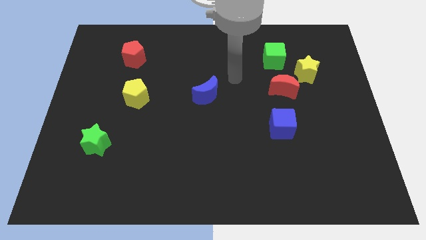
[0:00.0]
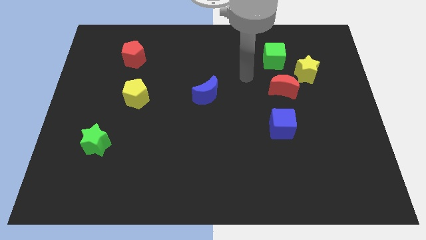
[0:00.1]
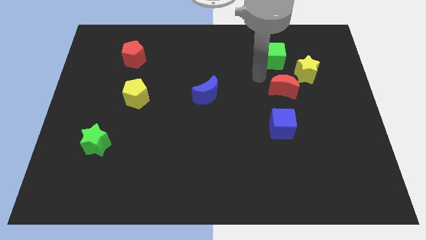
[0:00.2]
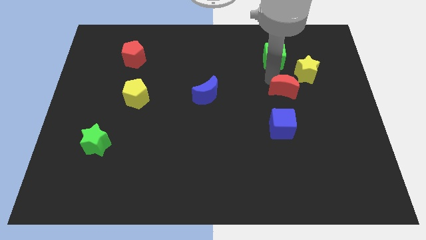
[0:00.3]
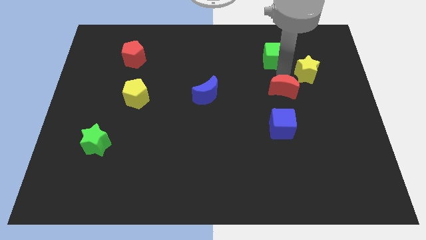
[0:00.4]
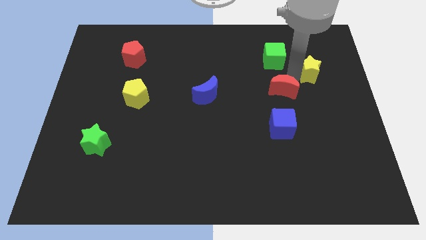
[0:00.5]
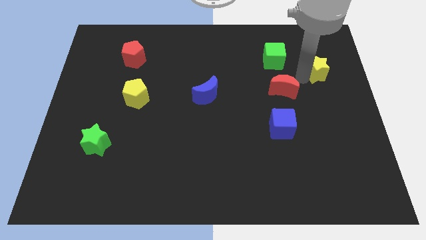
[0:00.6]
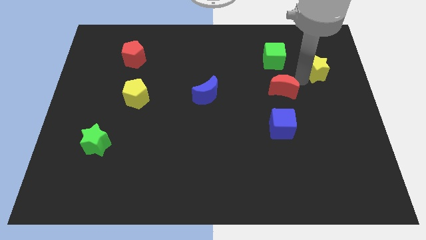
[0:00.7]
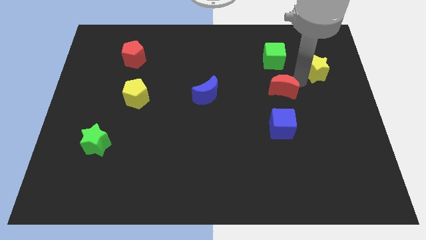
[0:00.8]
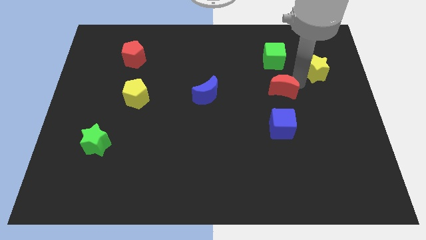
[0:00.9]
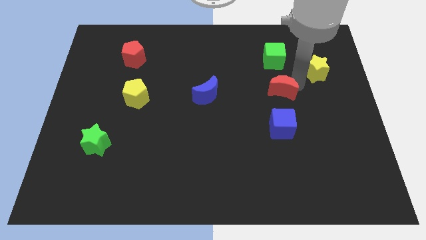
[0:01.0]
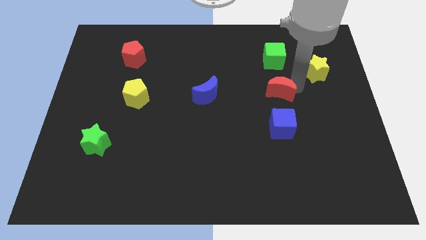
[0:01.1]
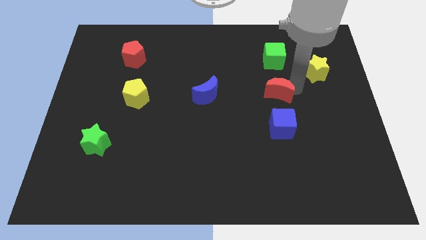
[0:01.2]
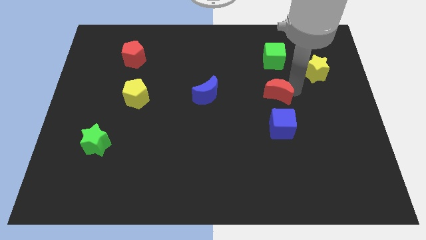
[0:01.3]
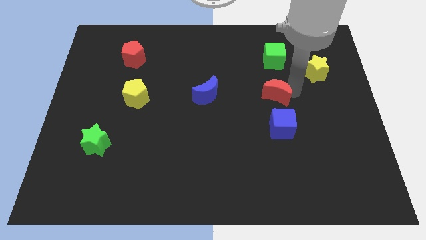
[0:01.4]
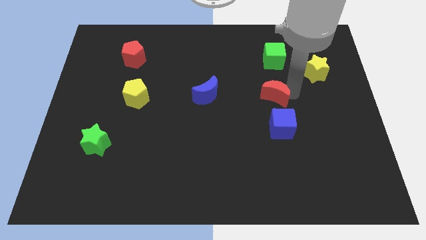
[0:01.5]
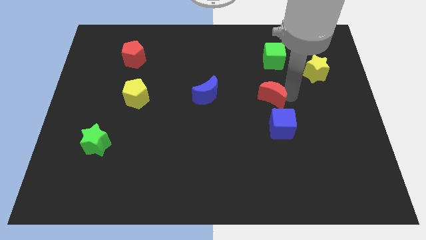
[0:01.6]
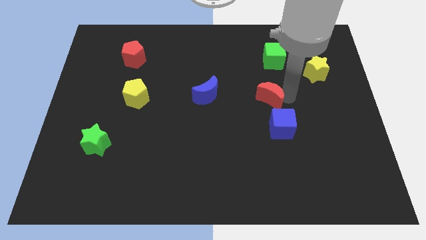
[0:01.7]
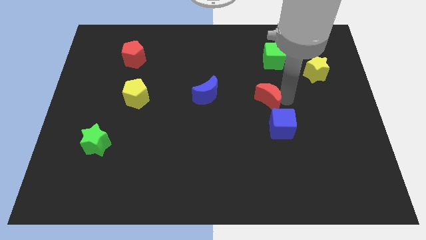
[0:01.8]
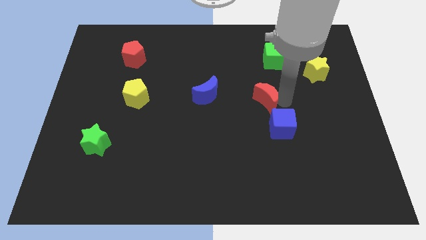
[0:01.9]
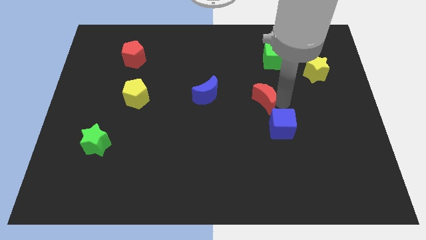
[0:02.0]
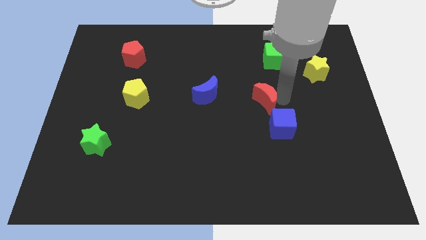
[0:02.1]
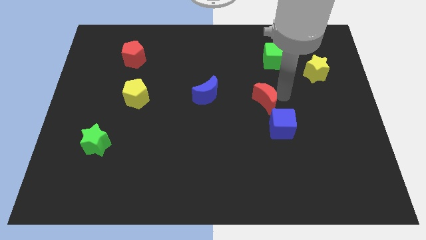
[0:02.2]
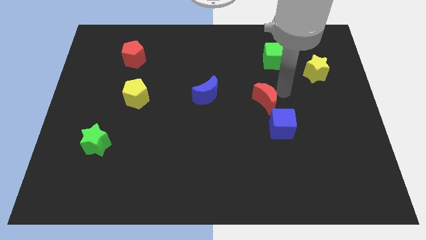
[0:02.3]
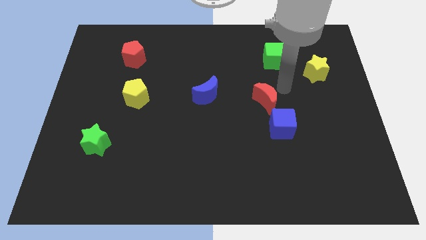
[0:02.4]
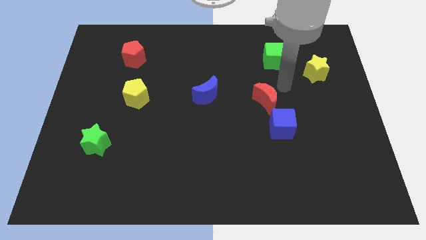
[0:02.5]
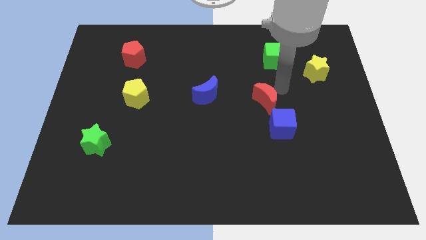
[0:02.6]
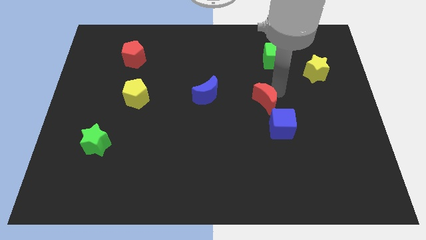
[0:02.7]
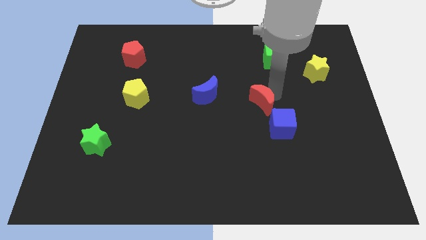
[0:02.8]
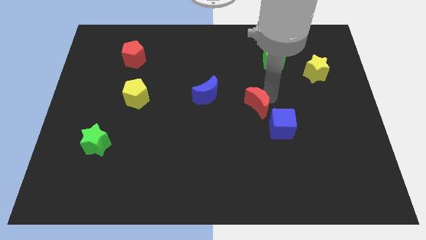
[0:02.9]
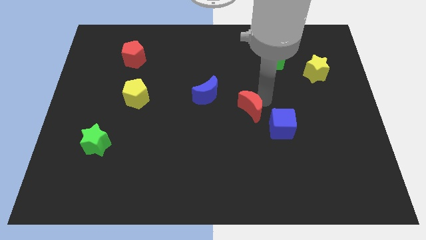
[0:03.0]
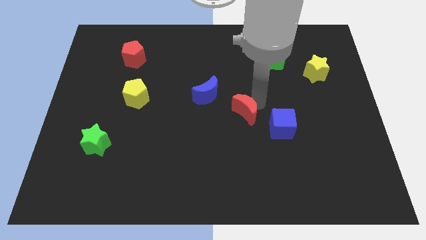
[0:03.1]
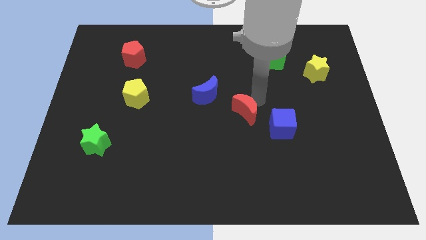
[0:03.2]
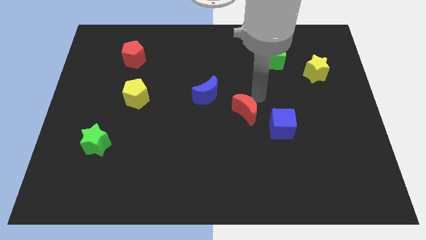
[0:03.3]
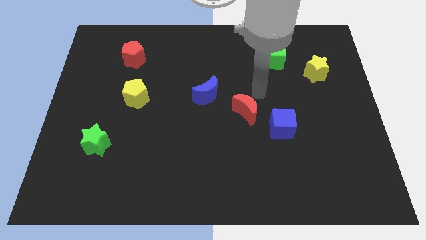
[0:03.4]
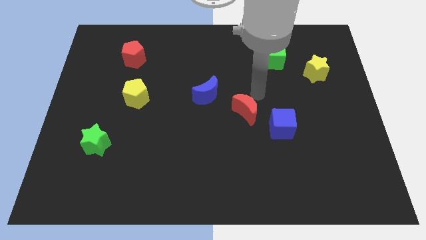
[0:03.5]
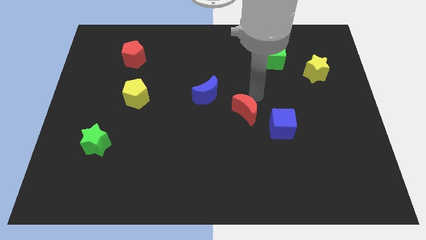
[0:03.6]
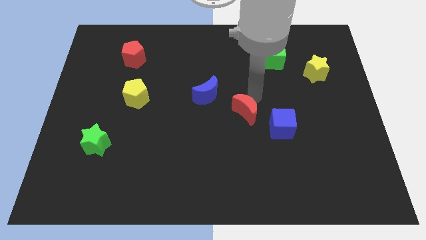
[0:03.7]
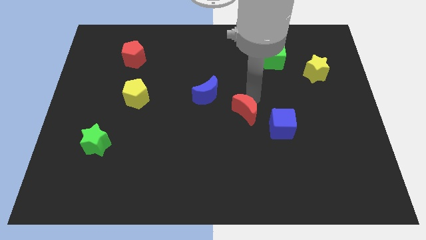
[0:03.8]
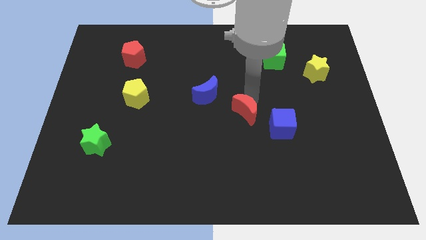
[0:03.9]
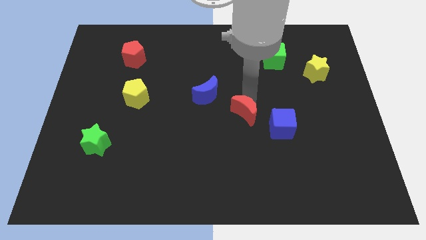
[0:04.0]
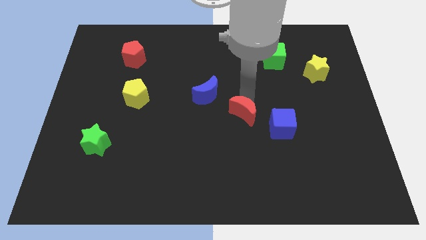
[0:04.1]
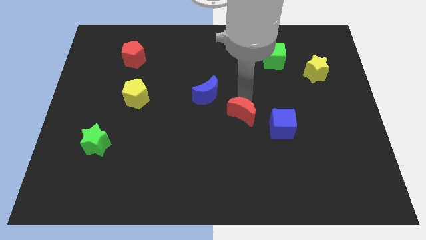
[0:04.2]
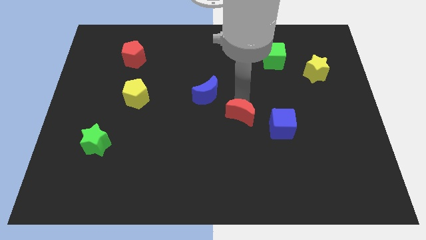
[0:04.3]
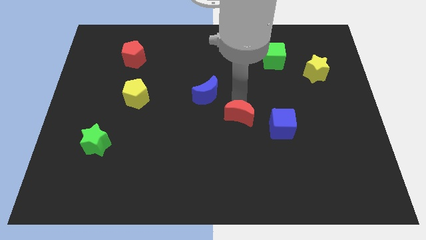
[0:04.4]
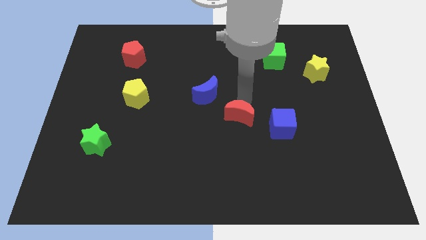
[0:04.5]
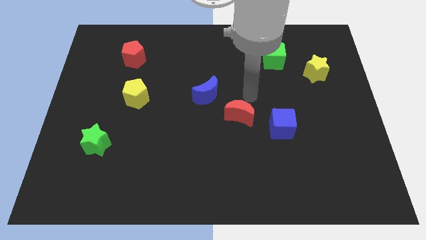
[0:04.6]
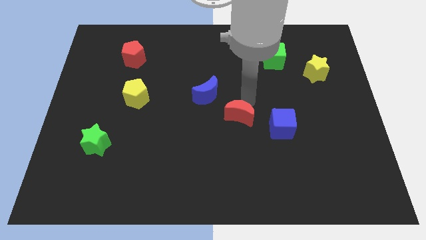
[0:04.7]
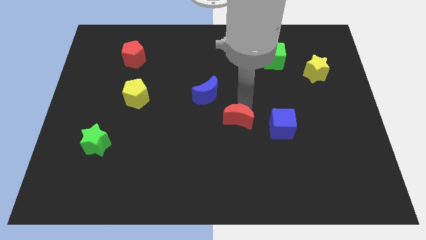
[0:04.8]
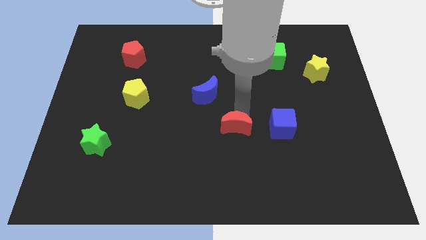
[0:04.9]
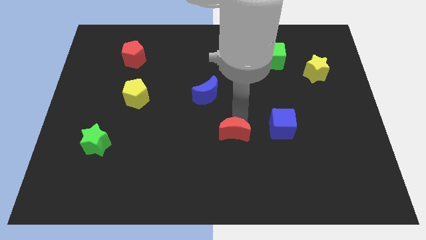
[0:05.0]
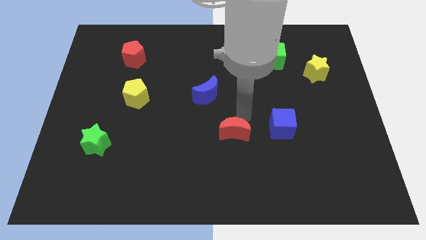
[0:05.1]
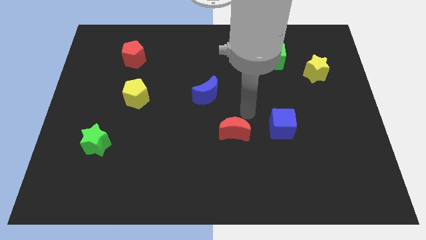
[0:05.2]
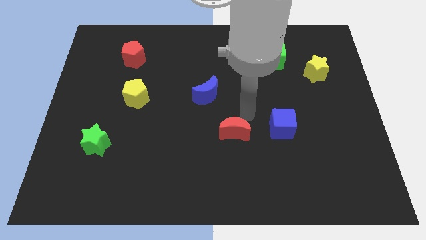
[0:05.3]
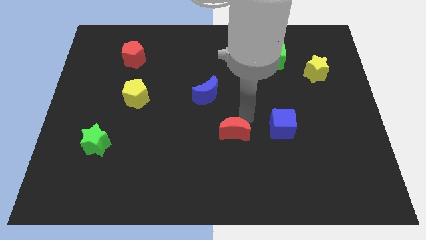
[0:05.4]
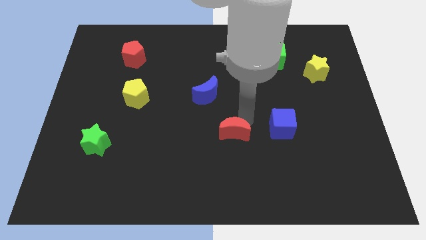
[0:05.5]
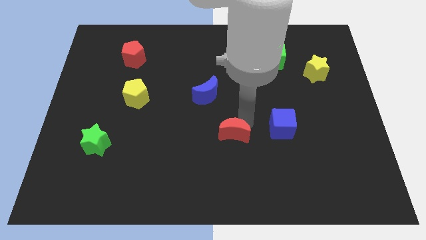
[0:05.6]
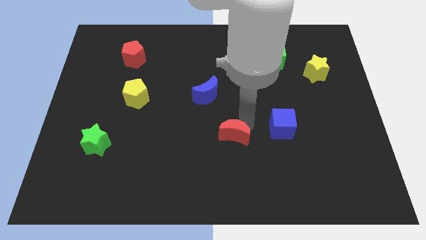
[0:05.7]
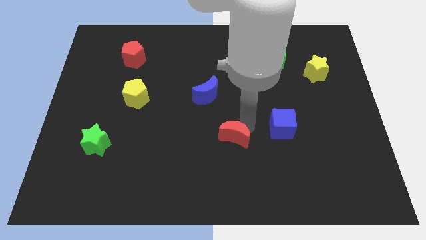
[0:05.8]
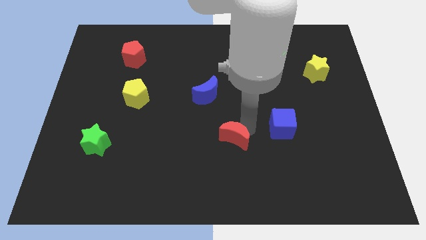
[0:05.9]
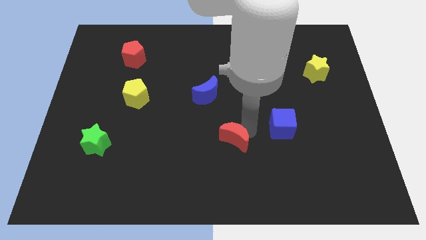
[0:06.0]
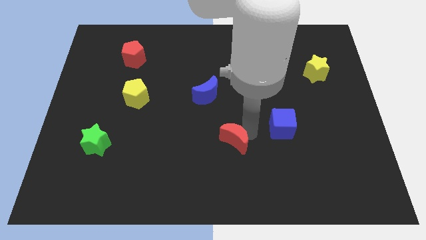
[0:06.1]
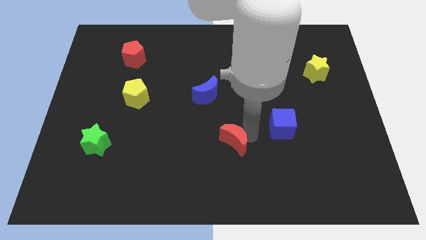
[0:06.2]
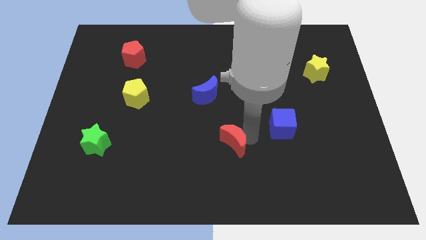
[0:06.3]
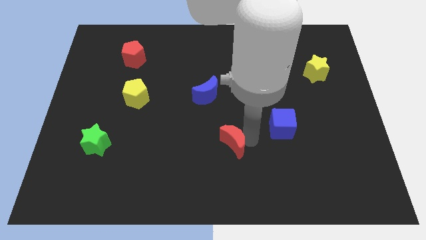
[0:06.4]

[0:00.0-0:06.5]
push the red moon down and then to the left

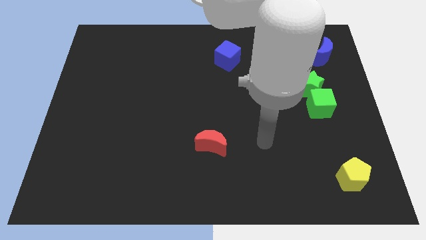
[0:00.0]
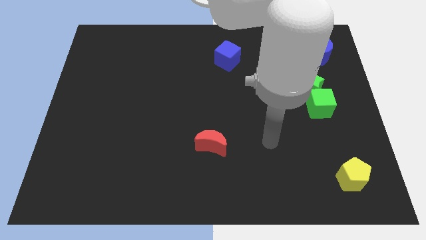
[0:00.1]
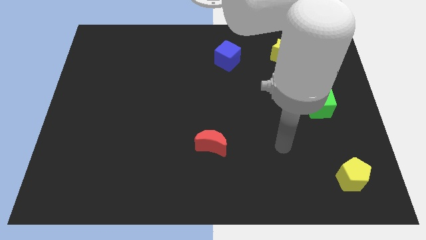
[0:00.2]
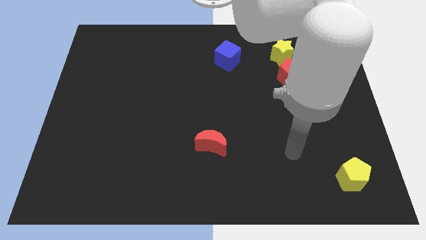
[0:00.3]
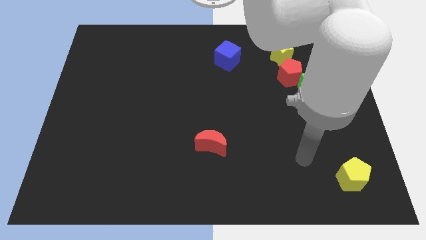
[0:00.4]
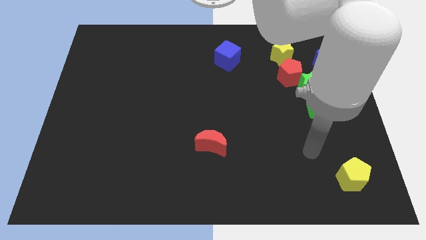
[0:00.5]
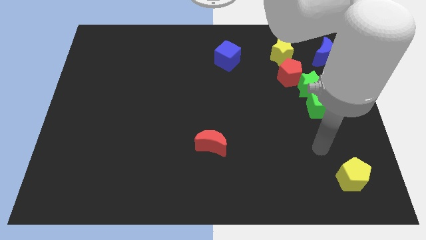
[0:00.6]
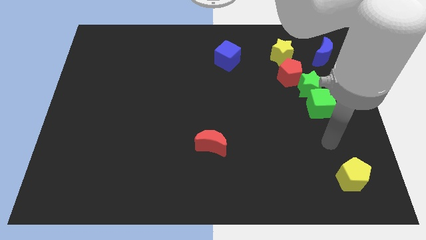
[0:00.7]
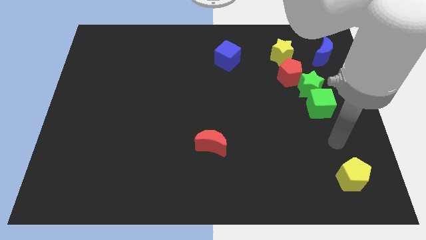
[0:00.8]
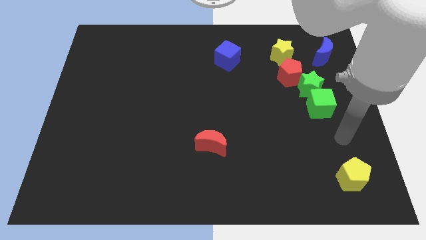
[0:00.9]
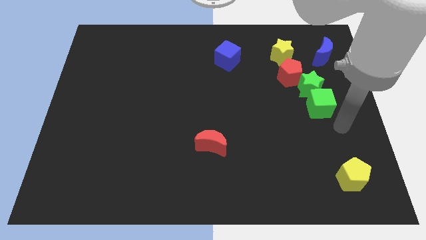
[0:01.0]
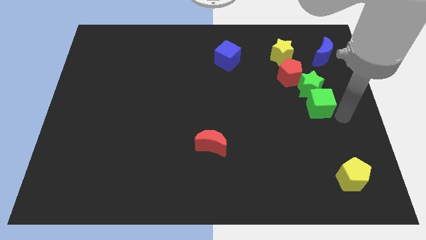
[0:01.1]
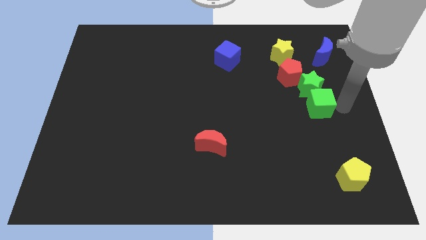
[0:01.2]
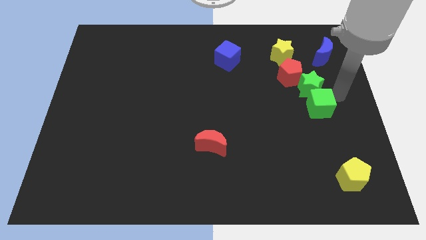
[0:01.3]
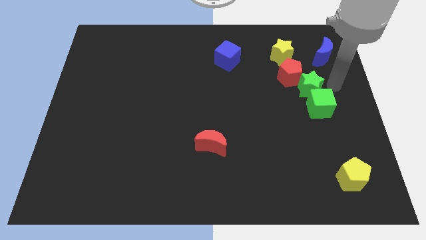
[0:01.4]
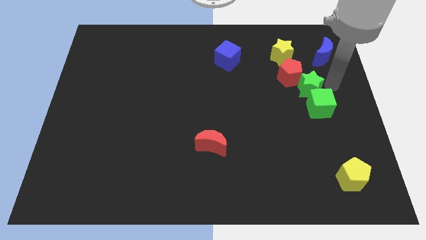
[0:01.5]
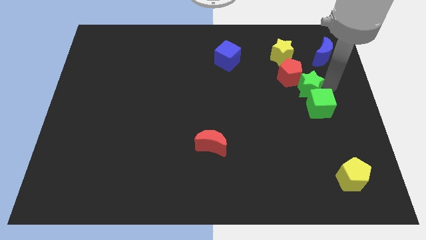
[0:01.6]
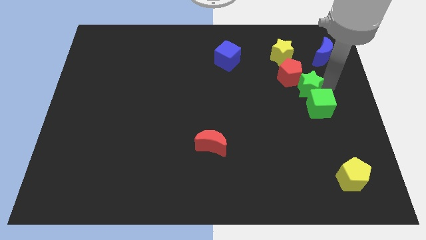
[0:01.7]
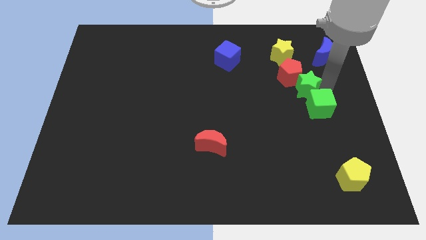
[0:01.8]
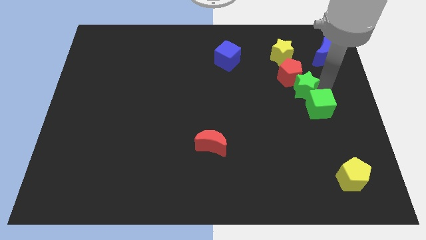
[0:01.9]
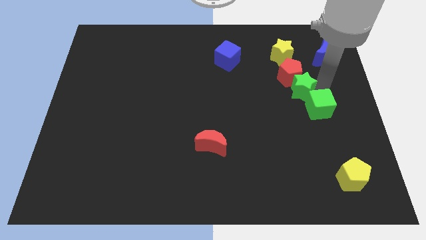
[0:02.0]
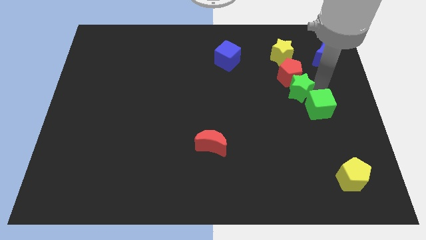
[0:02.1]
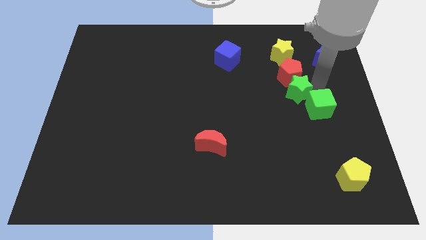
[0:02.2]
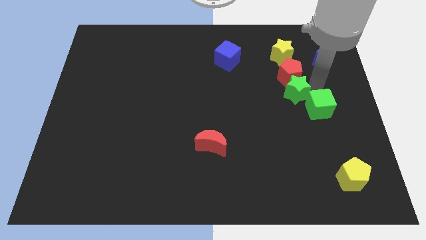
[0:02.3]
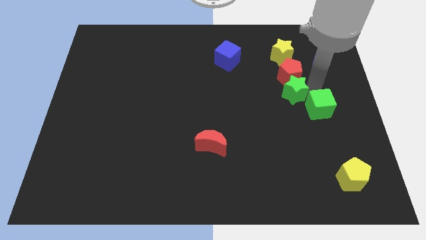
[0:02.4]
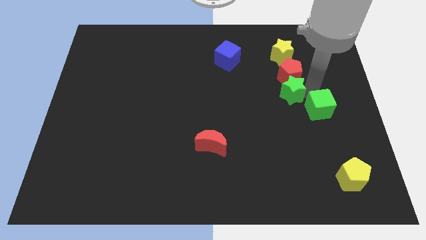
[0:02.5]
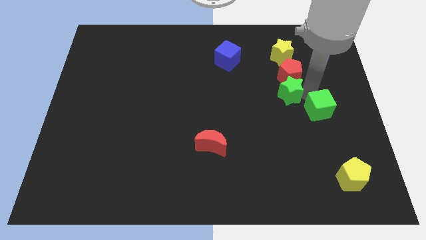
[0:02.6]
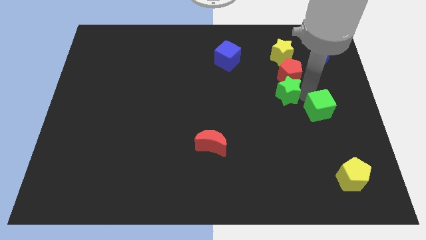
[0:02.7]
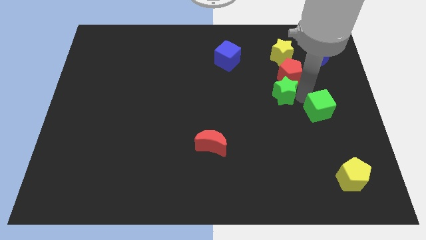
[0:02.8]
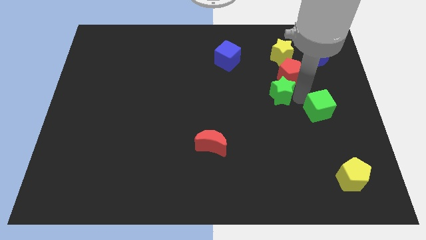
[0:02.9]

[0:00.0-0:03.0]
slightly push the green star to the left
